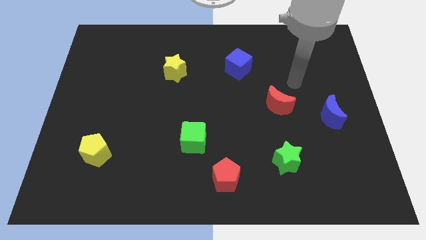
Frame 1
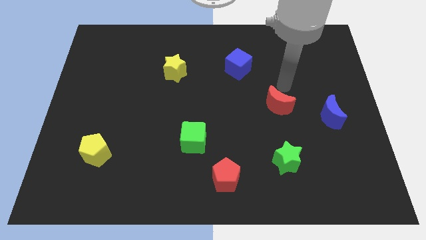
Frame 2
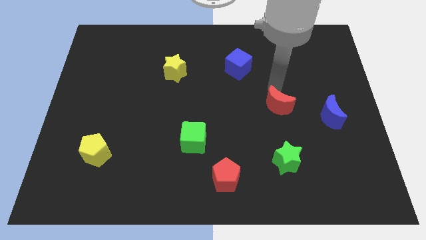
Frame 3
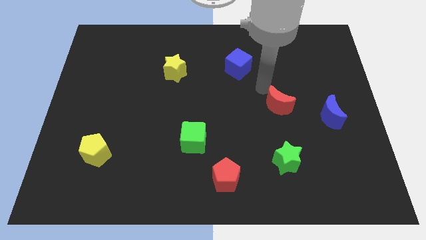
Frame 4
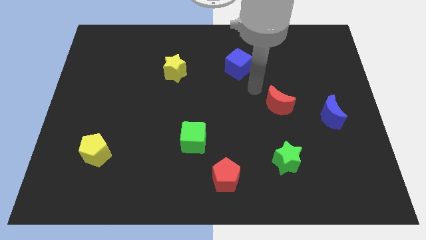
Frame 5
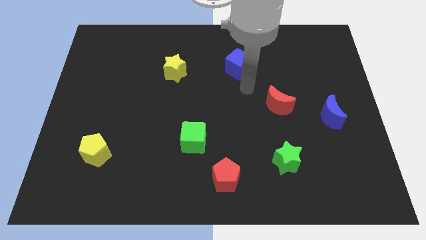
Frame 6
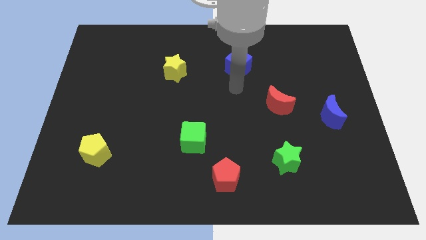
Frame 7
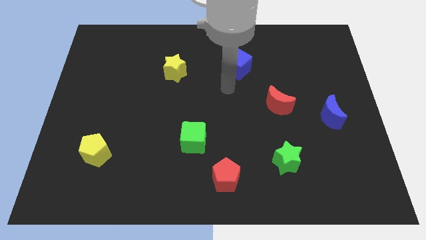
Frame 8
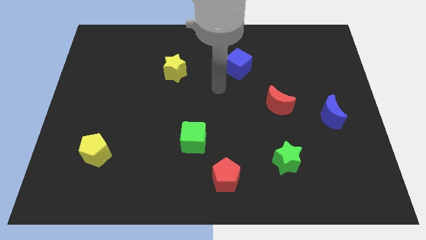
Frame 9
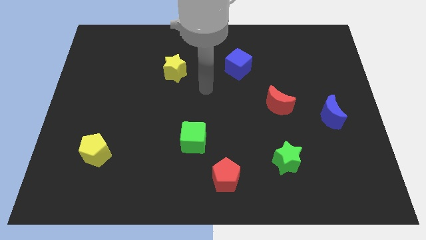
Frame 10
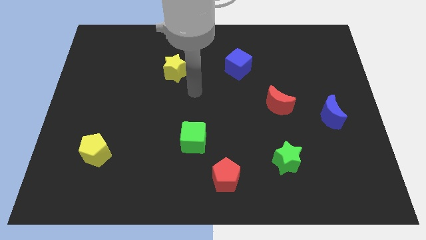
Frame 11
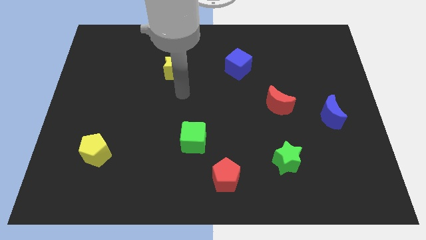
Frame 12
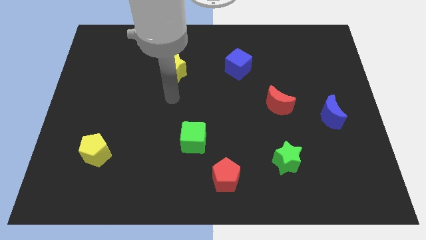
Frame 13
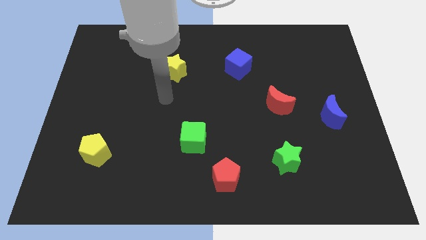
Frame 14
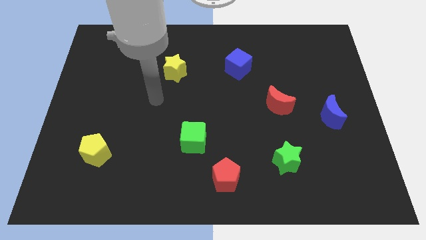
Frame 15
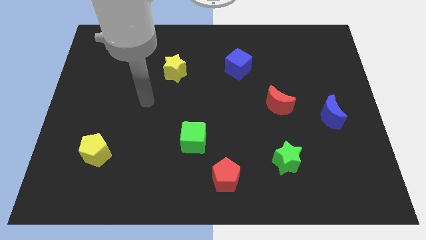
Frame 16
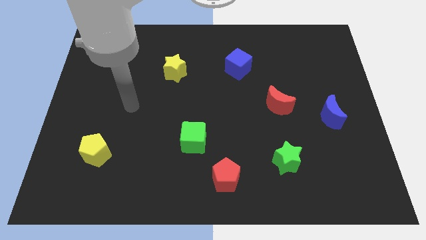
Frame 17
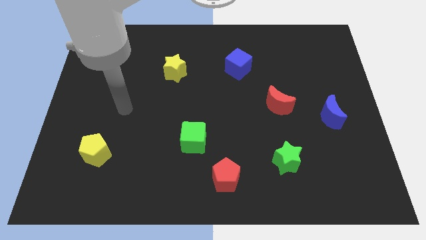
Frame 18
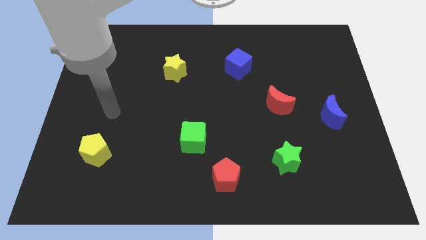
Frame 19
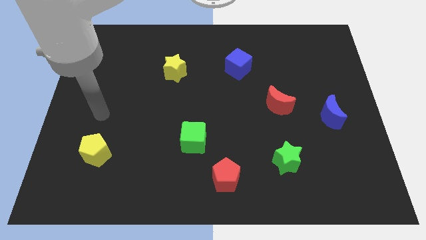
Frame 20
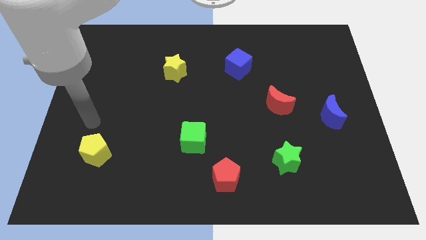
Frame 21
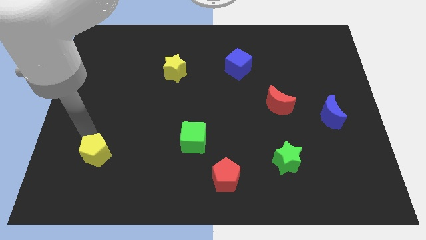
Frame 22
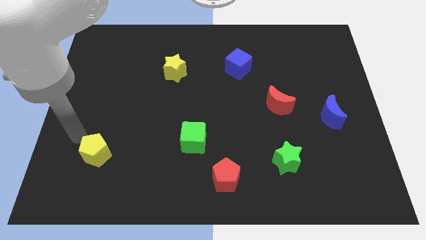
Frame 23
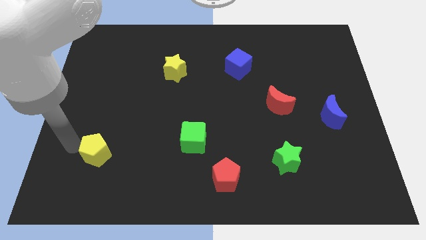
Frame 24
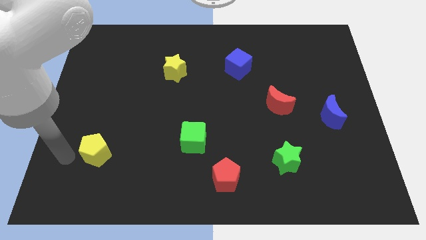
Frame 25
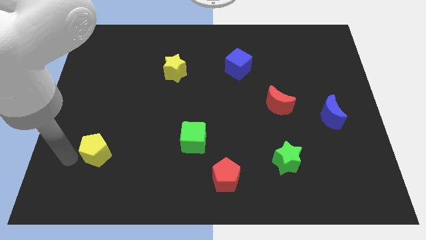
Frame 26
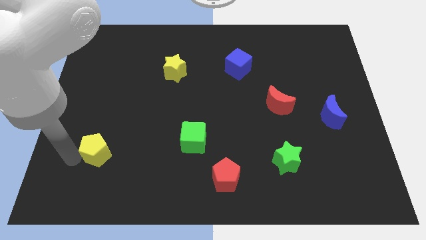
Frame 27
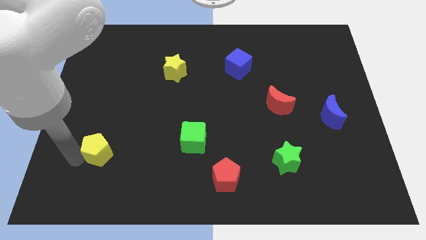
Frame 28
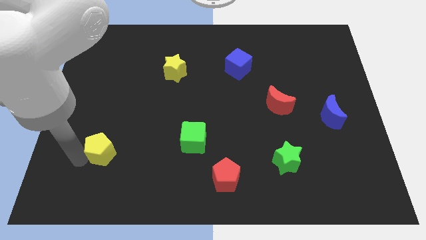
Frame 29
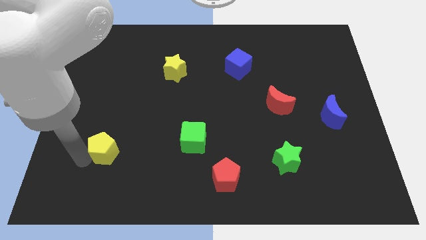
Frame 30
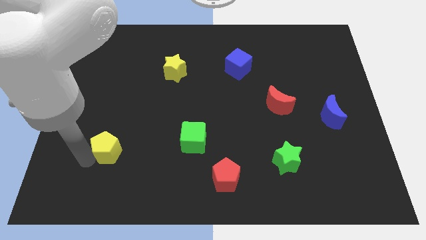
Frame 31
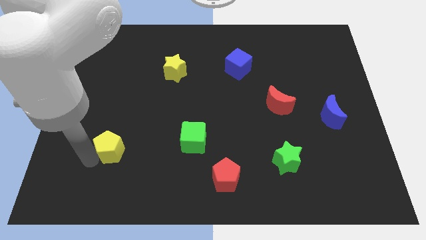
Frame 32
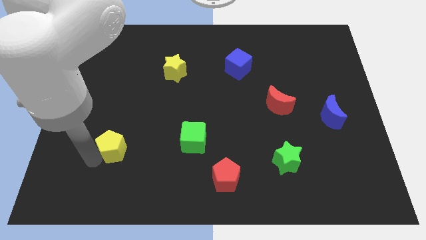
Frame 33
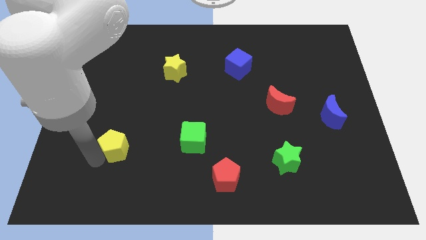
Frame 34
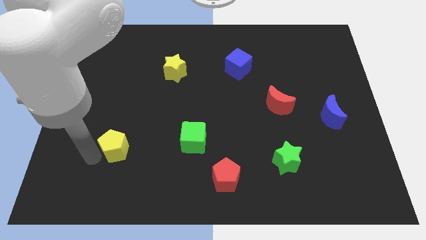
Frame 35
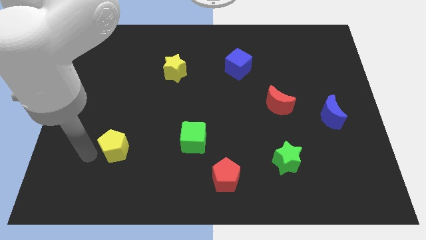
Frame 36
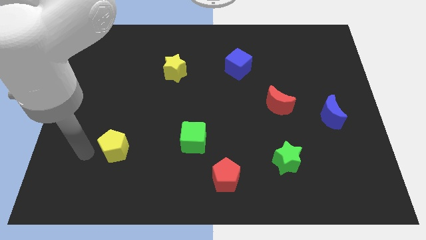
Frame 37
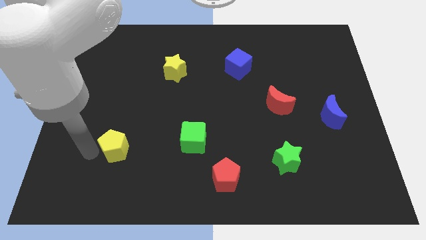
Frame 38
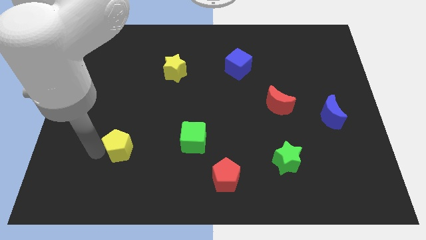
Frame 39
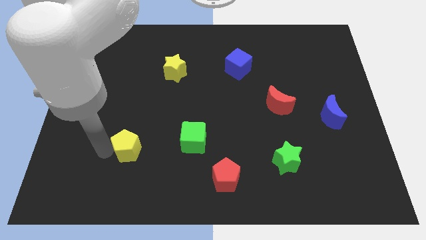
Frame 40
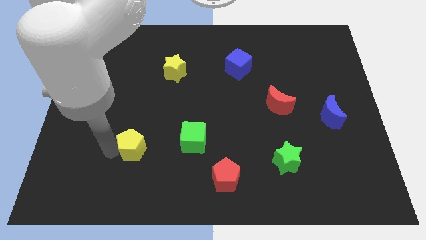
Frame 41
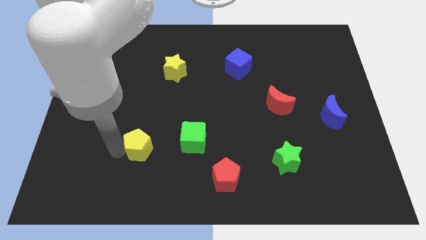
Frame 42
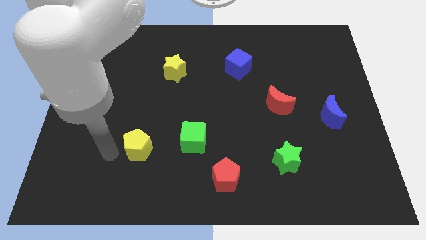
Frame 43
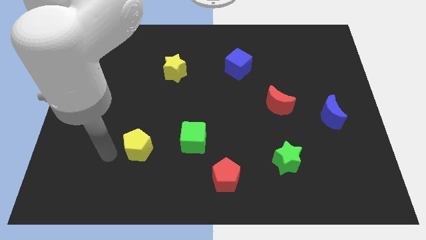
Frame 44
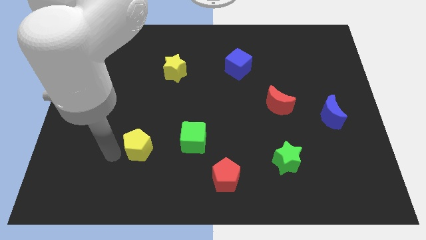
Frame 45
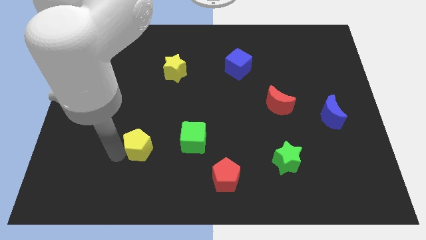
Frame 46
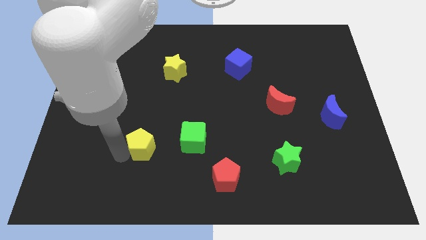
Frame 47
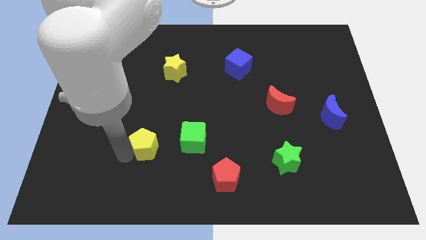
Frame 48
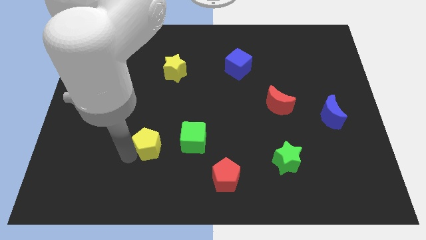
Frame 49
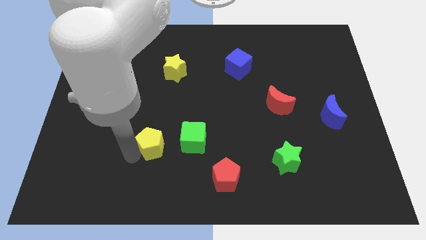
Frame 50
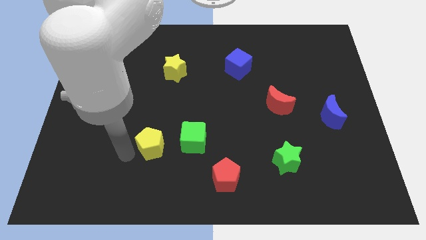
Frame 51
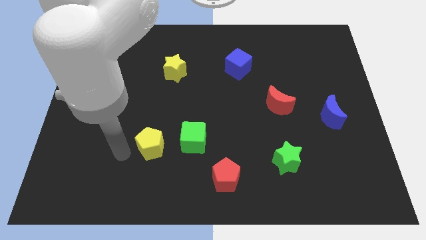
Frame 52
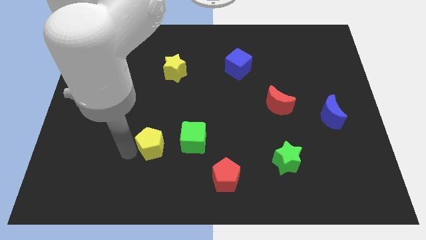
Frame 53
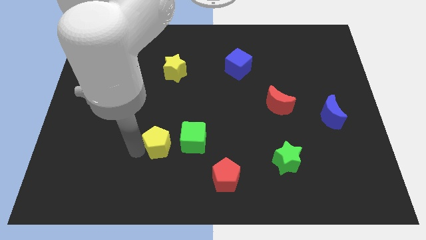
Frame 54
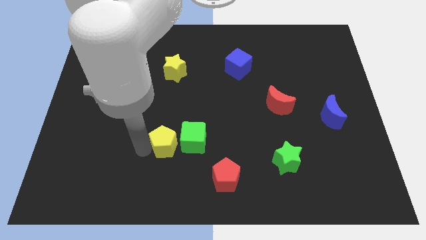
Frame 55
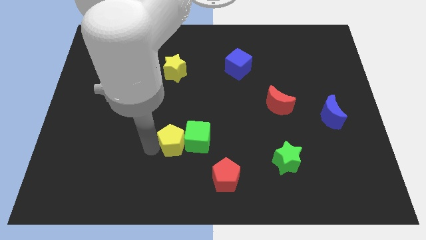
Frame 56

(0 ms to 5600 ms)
slide the yellow pentagon close to the green cube

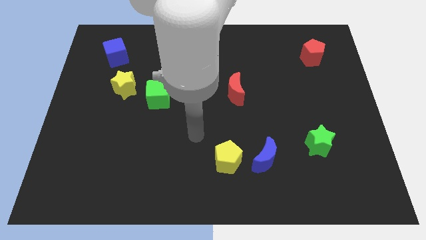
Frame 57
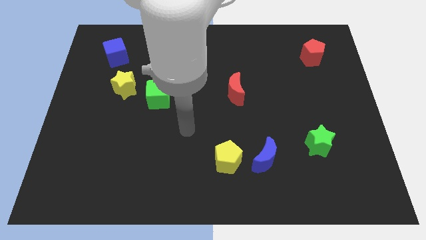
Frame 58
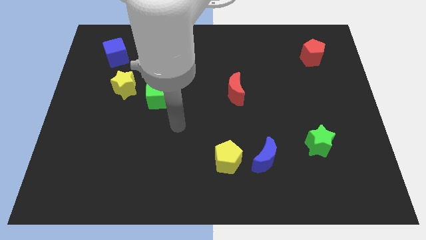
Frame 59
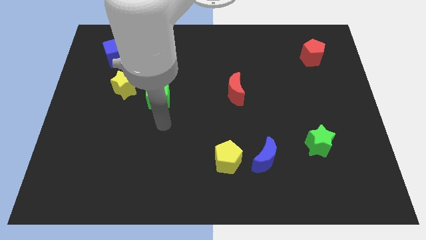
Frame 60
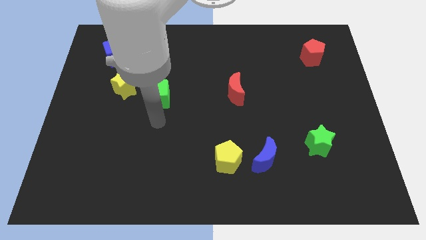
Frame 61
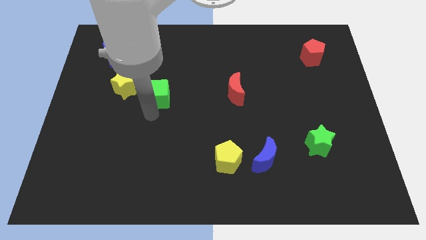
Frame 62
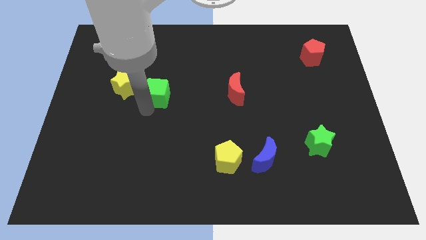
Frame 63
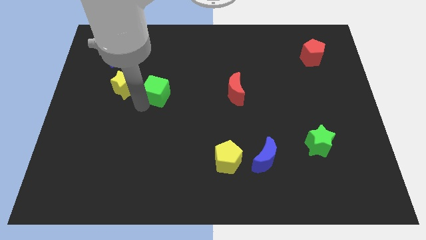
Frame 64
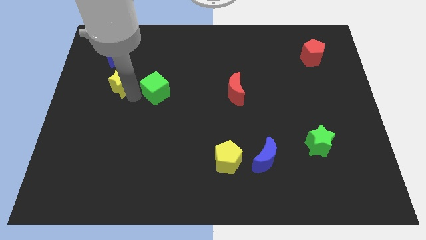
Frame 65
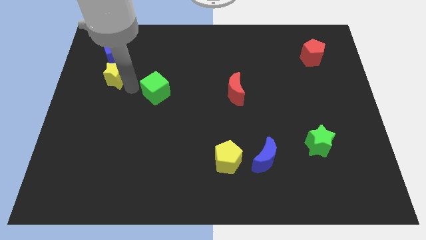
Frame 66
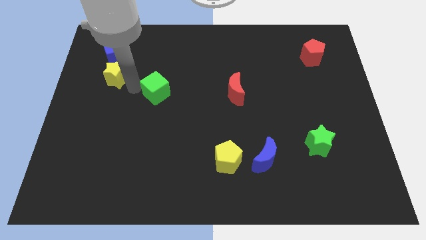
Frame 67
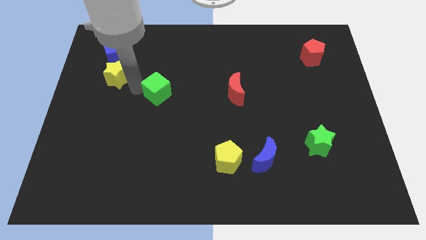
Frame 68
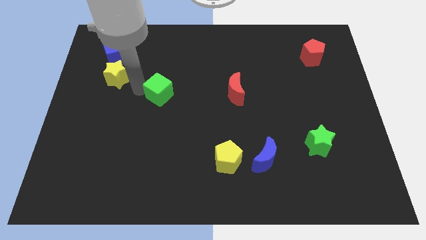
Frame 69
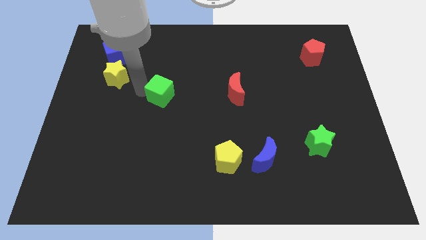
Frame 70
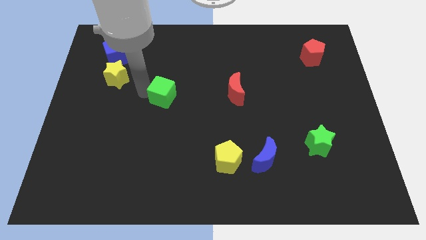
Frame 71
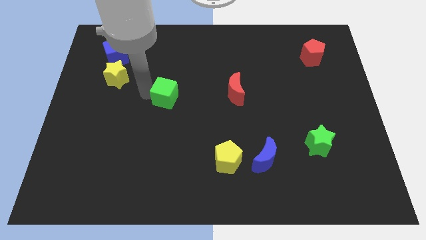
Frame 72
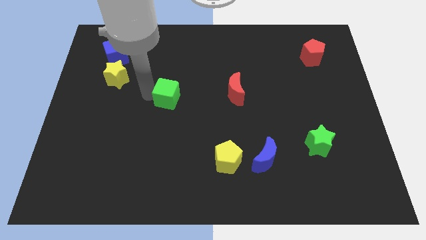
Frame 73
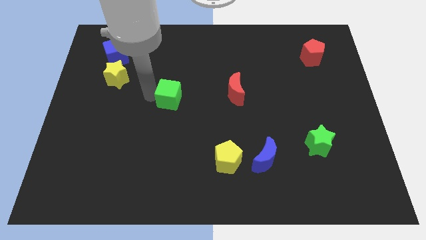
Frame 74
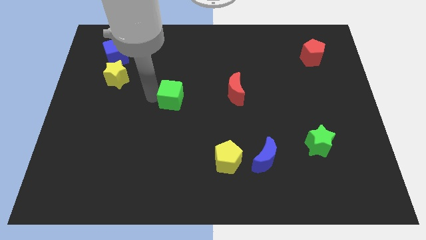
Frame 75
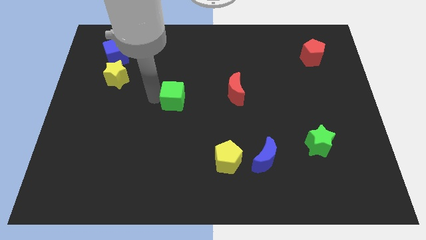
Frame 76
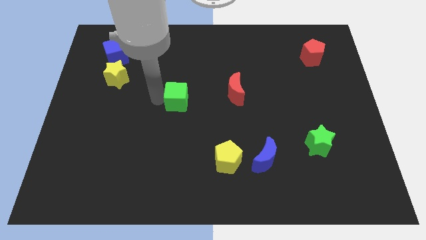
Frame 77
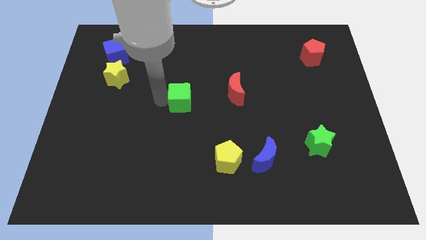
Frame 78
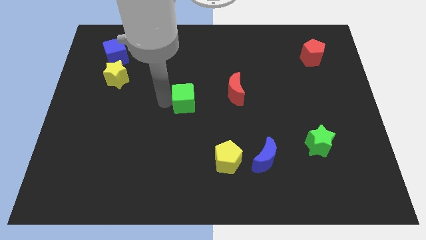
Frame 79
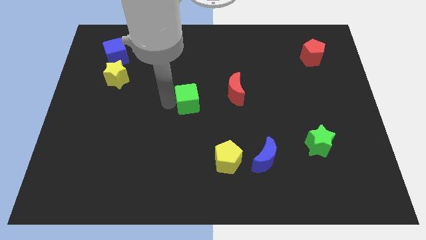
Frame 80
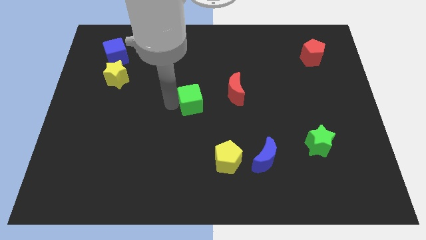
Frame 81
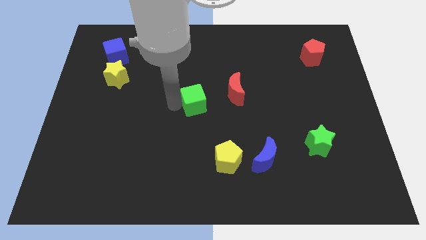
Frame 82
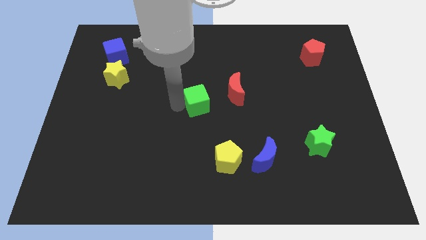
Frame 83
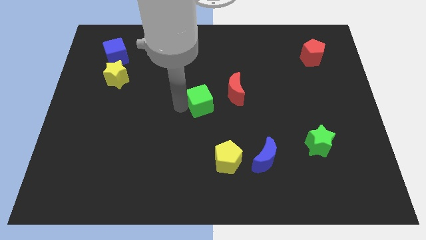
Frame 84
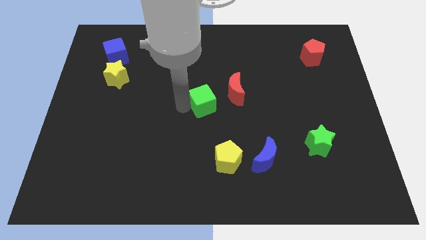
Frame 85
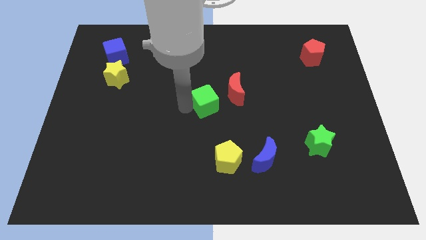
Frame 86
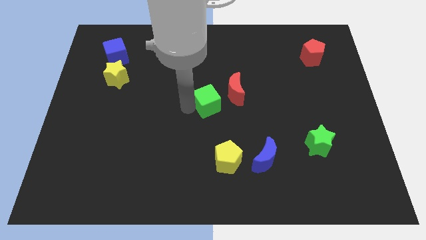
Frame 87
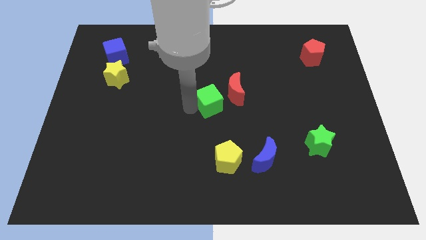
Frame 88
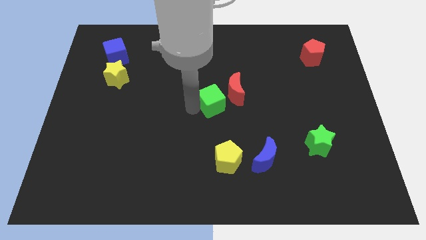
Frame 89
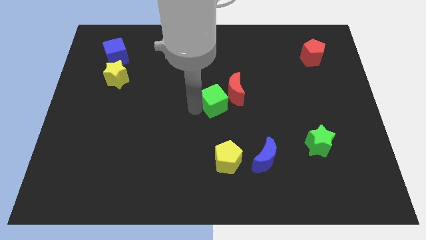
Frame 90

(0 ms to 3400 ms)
slide the green cube next to the red moon
